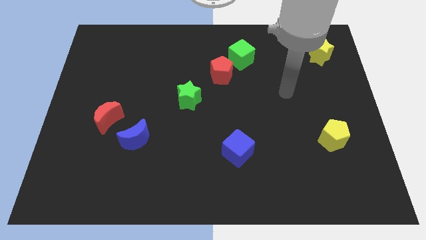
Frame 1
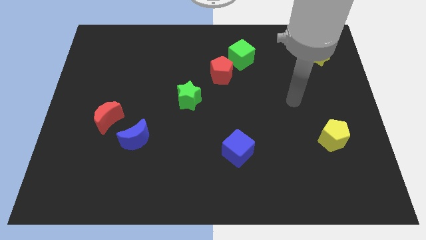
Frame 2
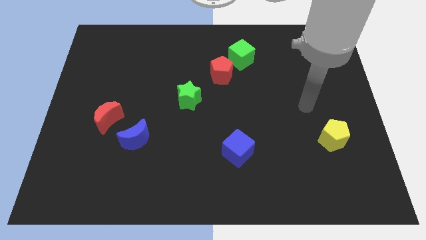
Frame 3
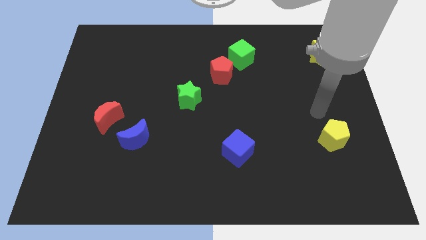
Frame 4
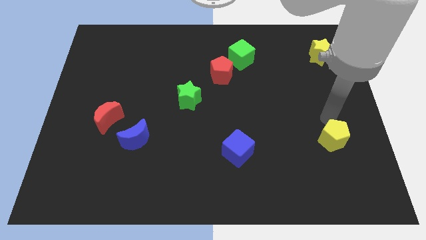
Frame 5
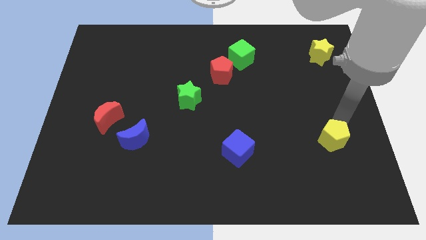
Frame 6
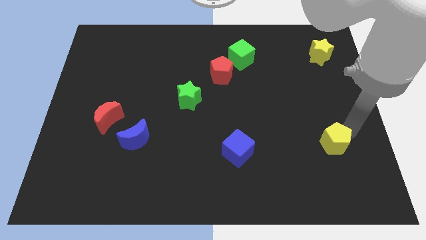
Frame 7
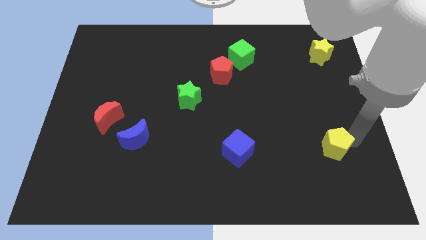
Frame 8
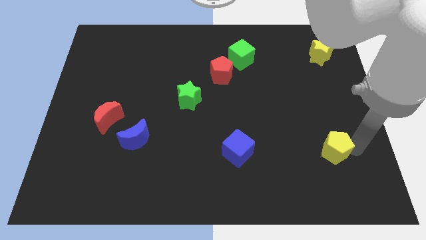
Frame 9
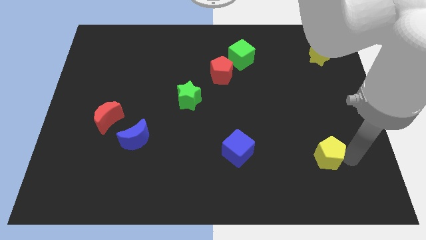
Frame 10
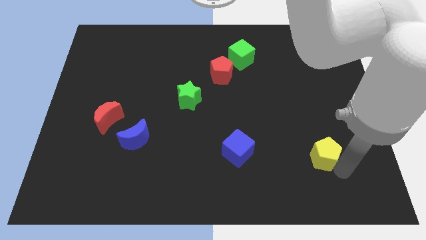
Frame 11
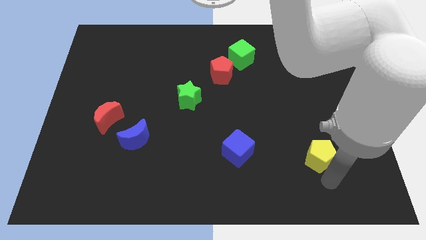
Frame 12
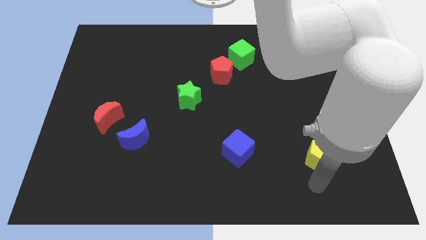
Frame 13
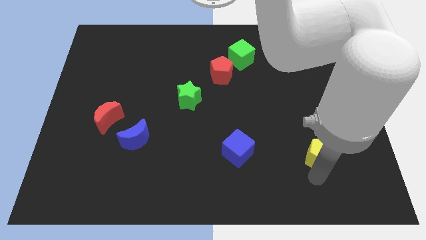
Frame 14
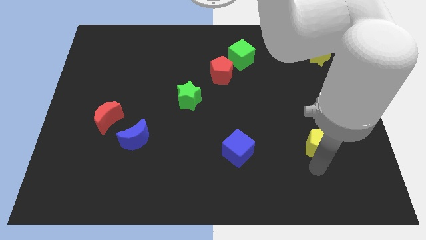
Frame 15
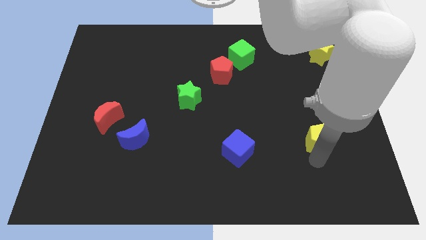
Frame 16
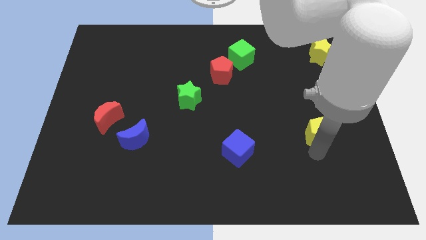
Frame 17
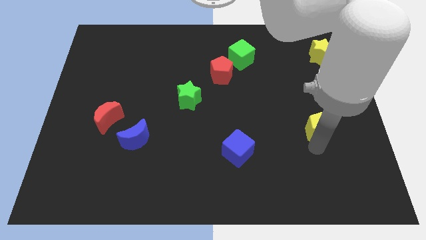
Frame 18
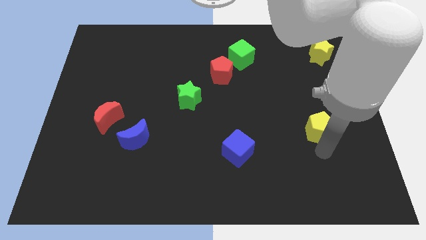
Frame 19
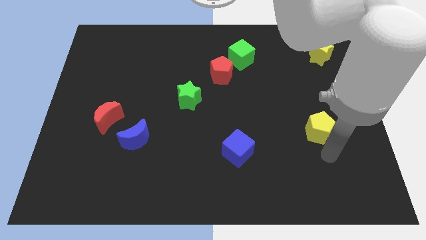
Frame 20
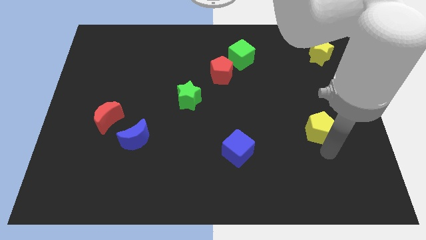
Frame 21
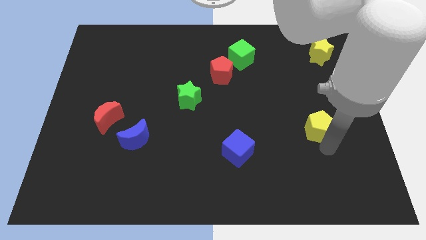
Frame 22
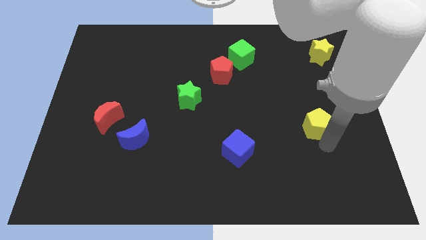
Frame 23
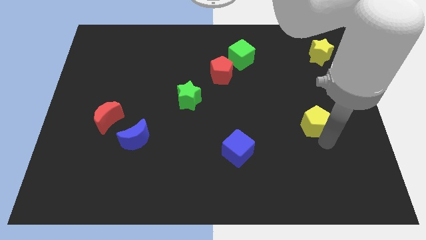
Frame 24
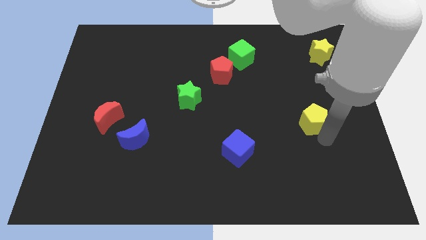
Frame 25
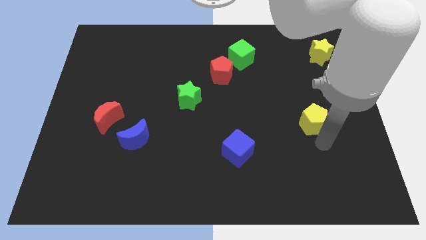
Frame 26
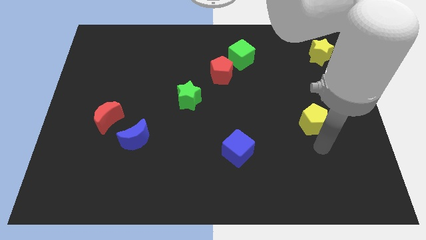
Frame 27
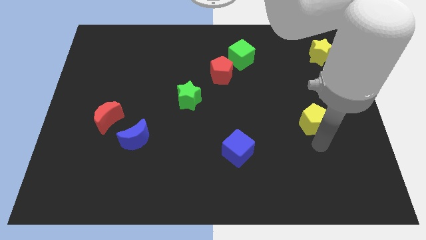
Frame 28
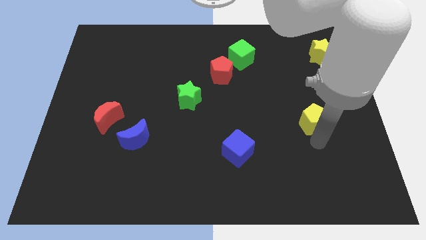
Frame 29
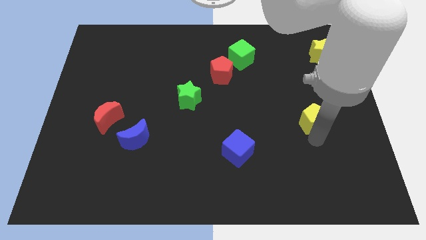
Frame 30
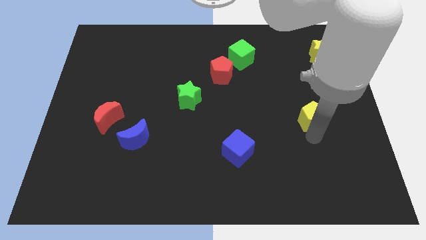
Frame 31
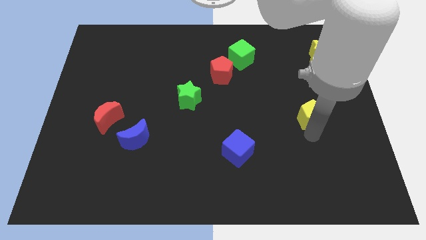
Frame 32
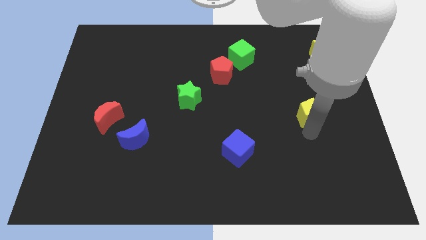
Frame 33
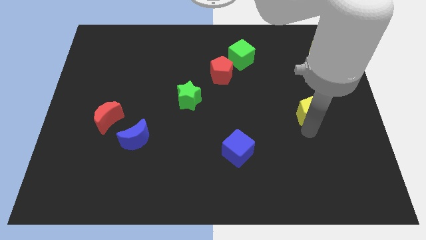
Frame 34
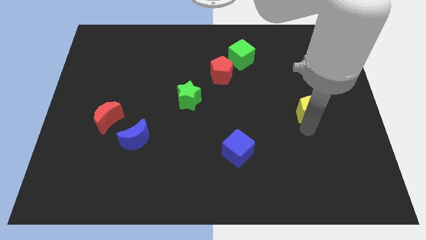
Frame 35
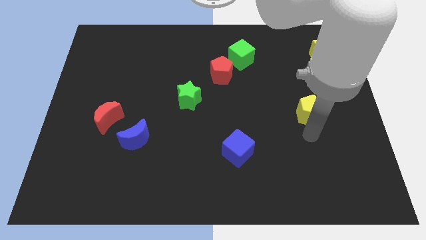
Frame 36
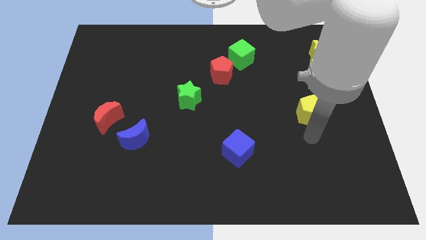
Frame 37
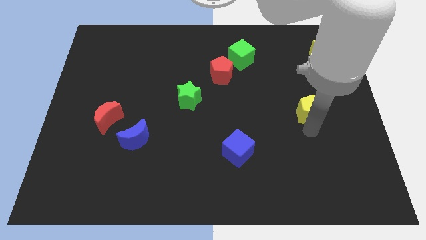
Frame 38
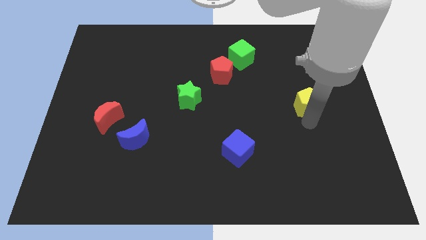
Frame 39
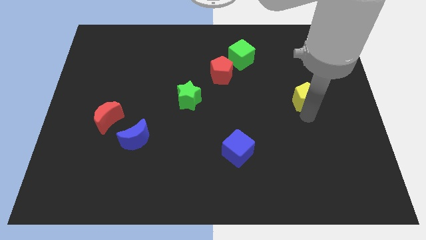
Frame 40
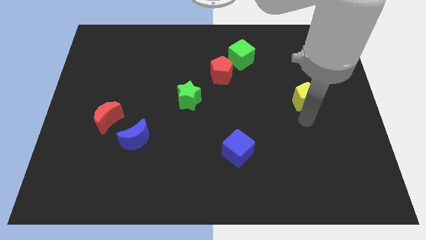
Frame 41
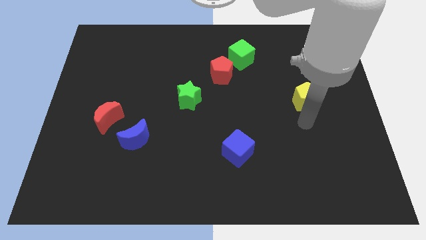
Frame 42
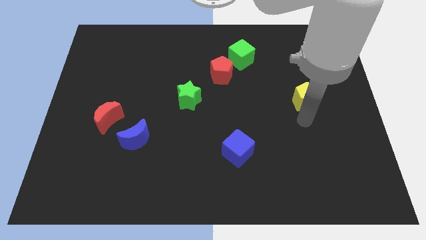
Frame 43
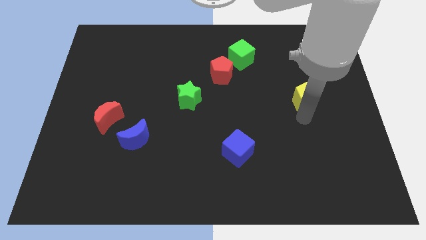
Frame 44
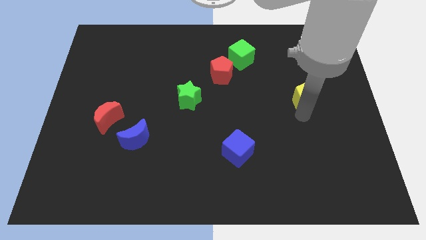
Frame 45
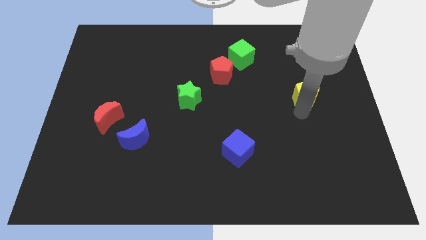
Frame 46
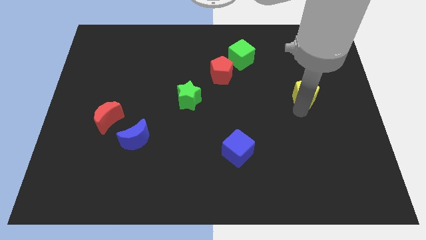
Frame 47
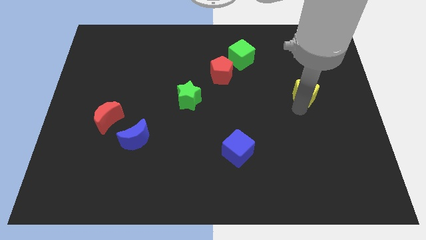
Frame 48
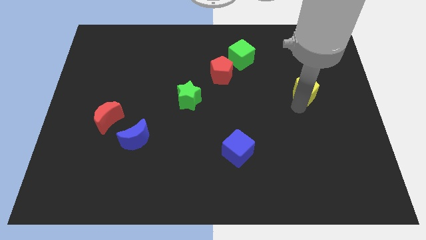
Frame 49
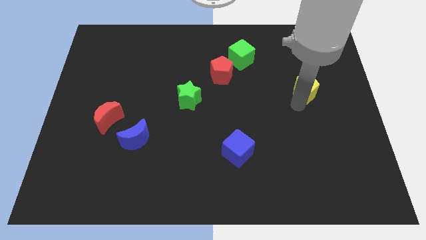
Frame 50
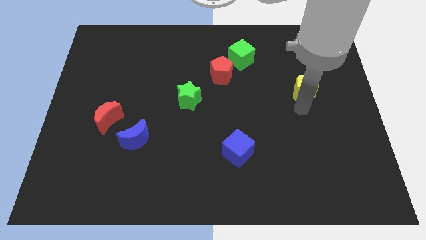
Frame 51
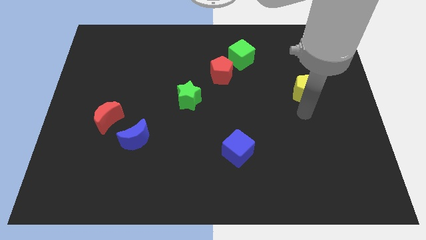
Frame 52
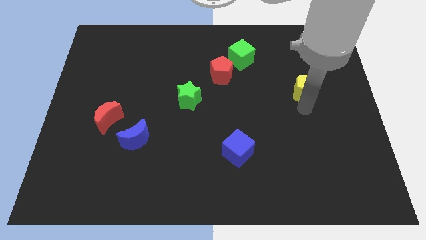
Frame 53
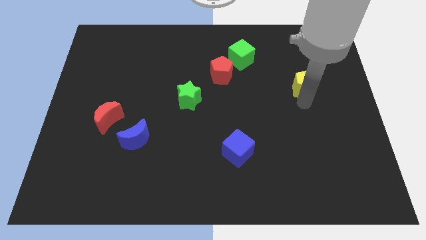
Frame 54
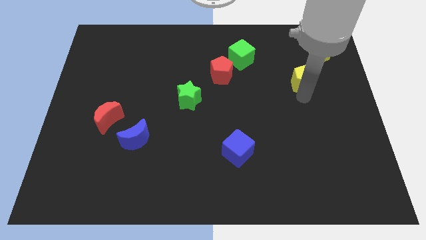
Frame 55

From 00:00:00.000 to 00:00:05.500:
slide the yellow pentagon to the bottom left side of the yellow star

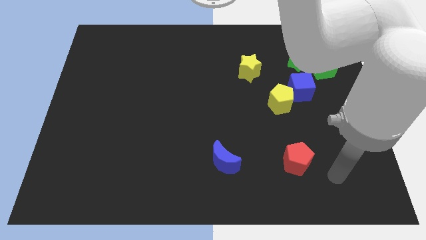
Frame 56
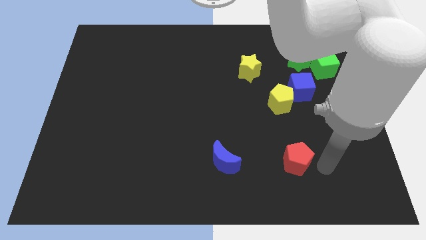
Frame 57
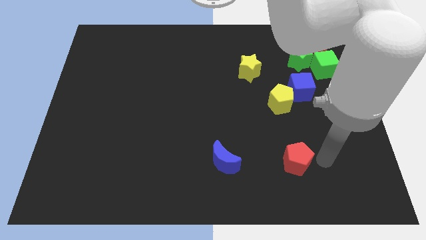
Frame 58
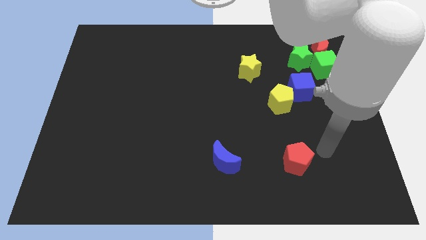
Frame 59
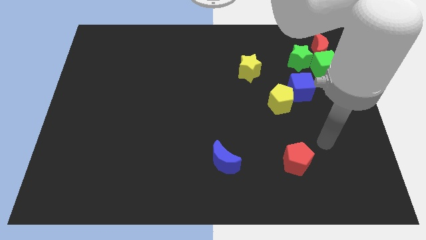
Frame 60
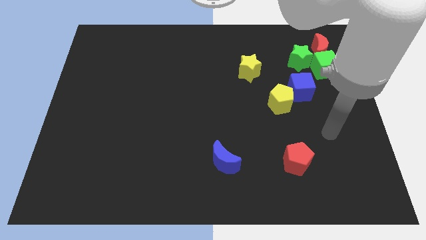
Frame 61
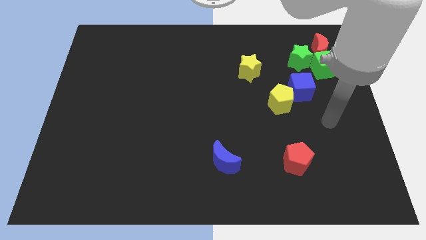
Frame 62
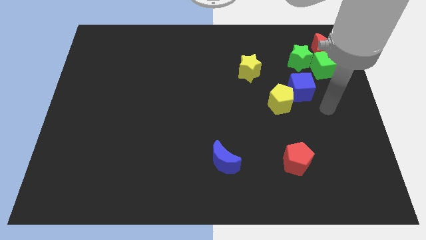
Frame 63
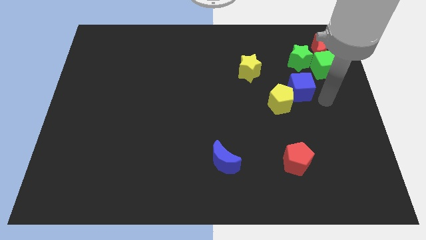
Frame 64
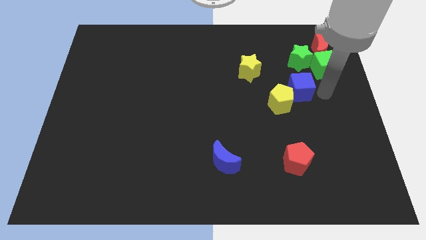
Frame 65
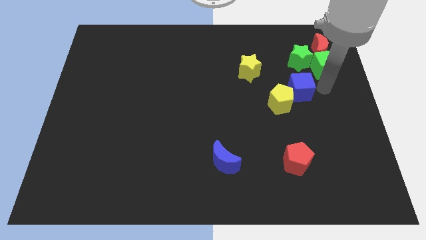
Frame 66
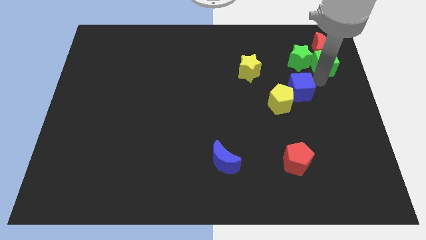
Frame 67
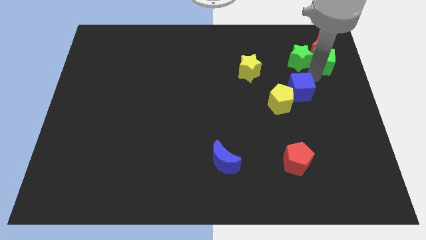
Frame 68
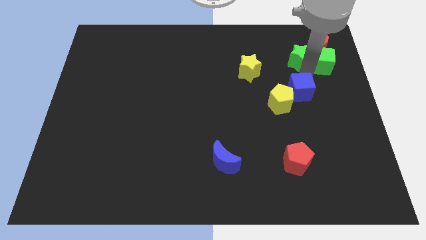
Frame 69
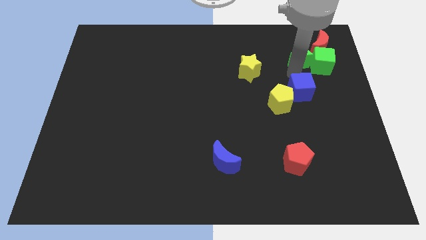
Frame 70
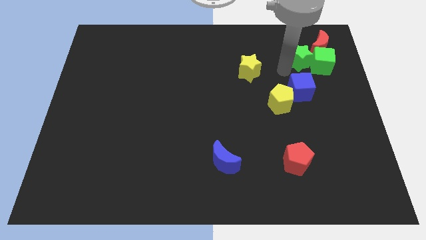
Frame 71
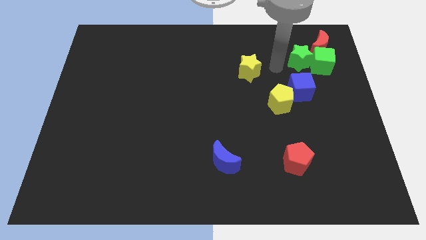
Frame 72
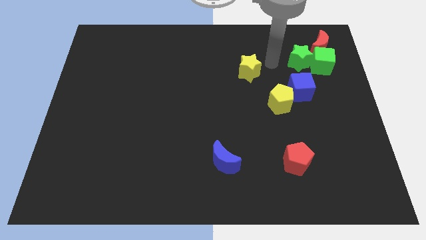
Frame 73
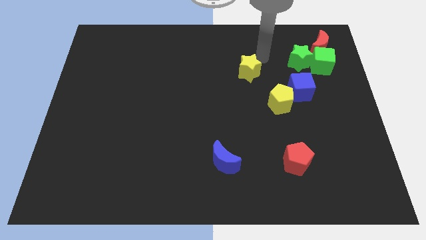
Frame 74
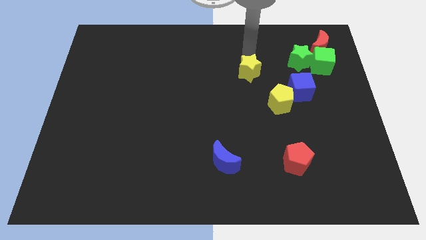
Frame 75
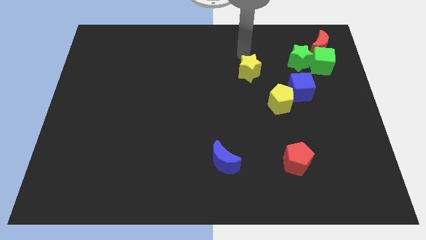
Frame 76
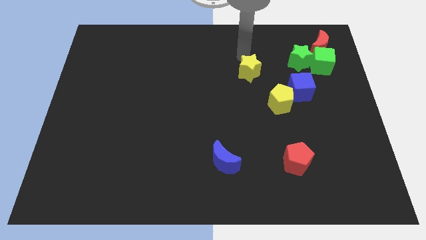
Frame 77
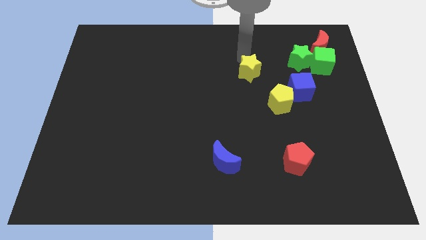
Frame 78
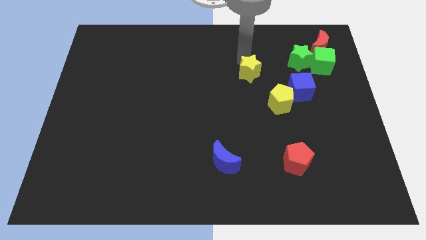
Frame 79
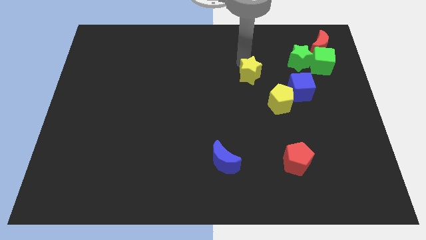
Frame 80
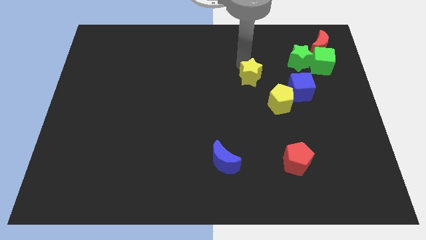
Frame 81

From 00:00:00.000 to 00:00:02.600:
put the yellow star left of the blue cube
